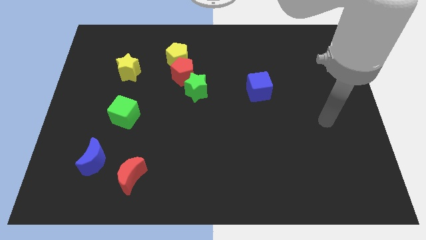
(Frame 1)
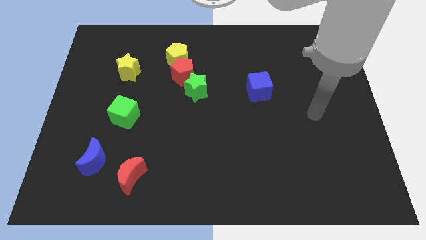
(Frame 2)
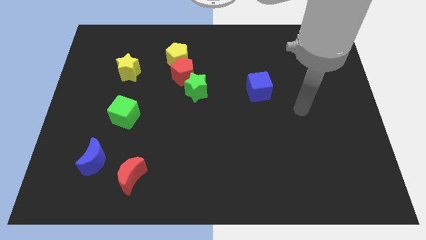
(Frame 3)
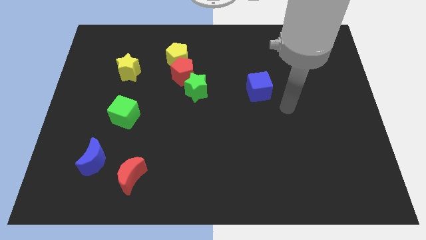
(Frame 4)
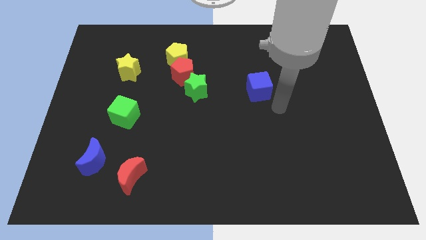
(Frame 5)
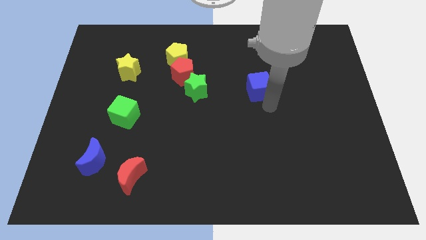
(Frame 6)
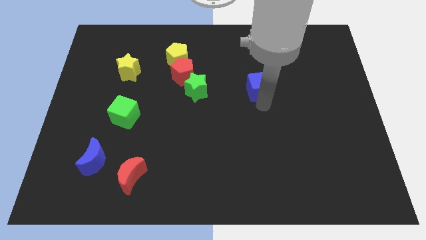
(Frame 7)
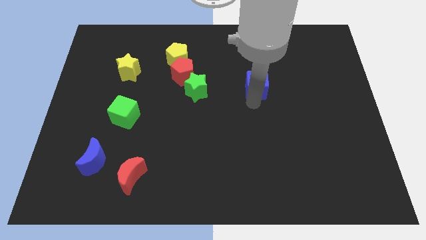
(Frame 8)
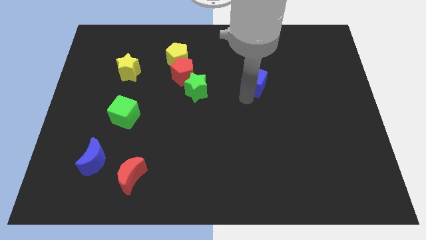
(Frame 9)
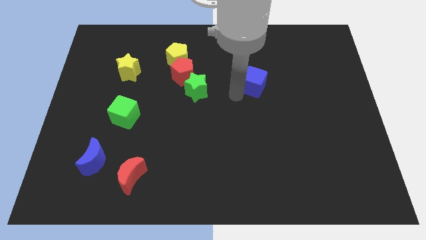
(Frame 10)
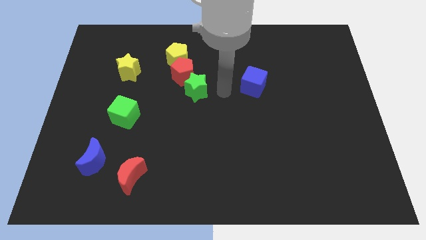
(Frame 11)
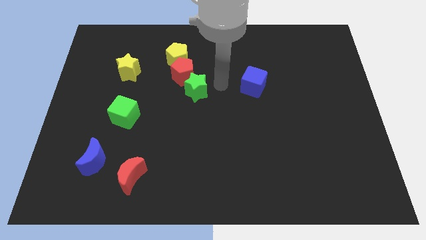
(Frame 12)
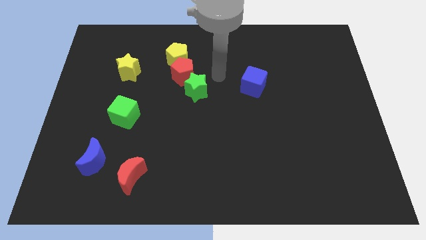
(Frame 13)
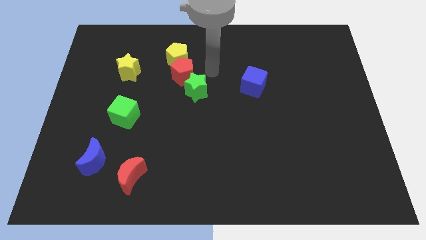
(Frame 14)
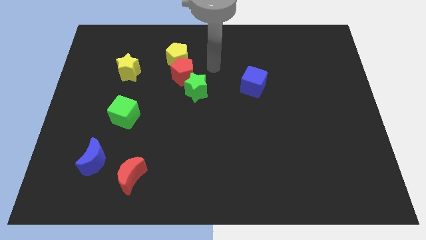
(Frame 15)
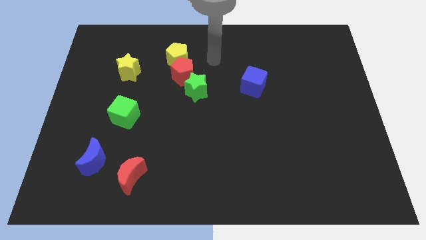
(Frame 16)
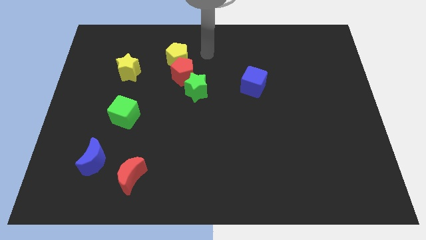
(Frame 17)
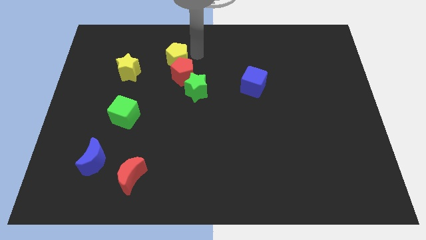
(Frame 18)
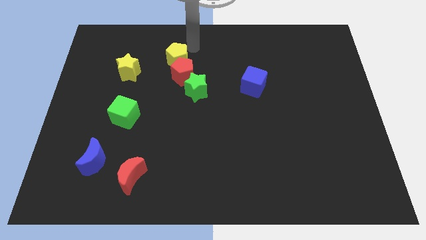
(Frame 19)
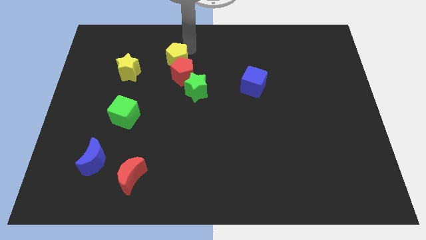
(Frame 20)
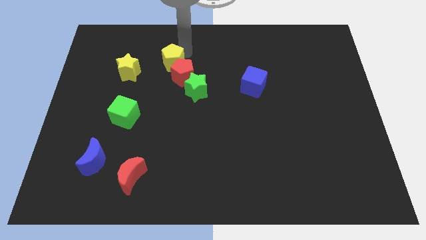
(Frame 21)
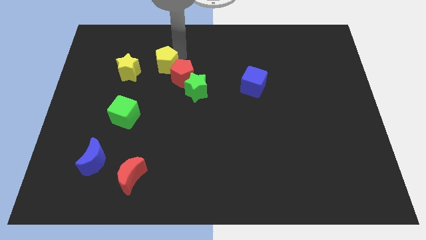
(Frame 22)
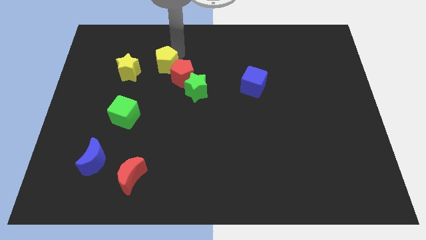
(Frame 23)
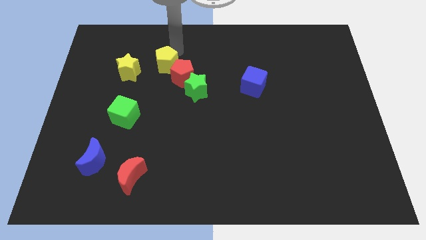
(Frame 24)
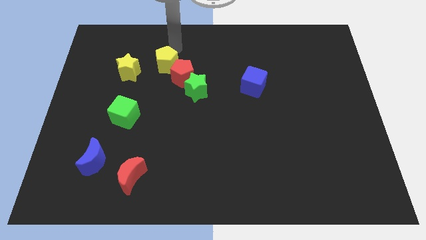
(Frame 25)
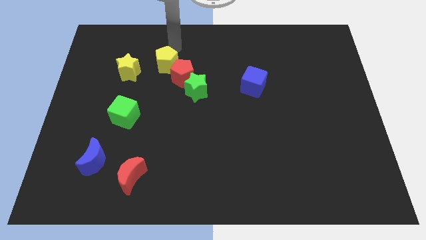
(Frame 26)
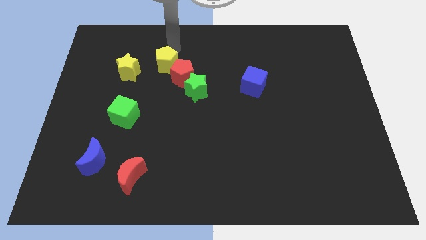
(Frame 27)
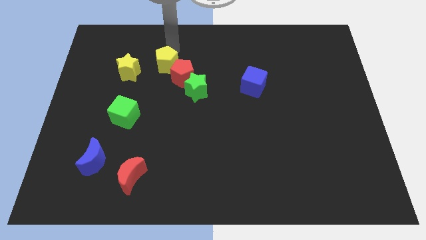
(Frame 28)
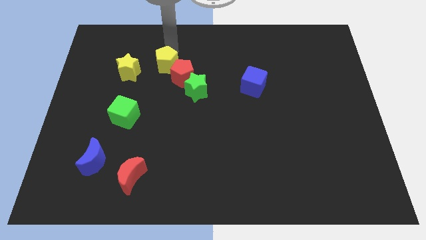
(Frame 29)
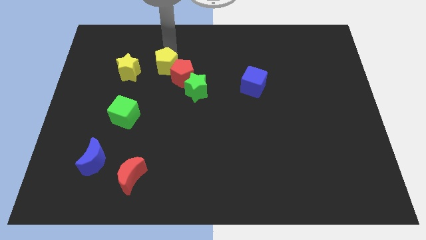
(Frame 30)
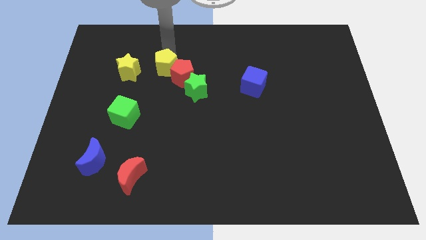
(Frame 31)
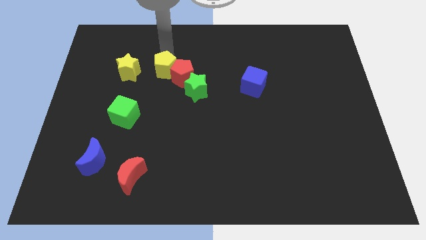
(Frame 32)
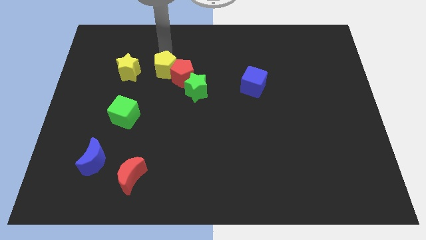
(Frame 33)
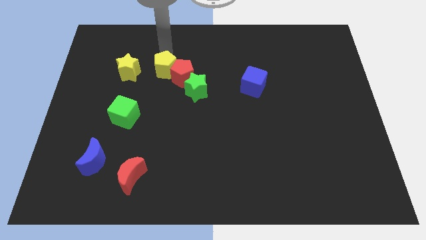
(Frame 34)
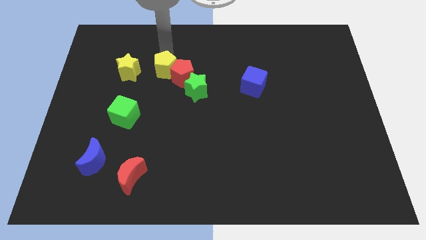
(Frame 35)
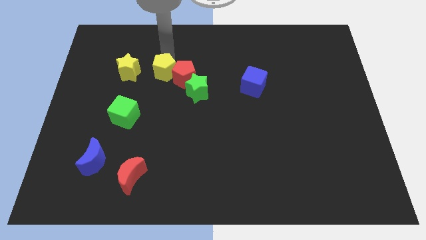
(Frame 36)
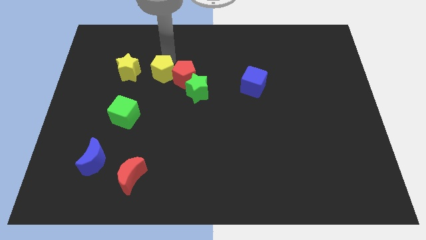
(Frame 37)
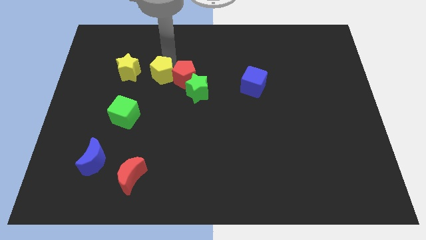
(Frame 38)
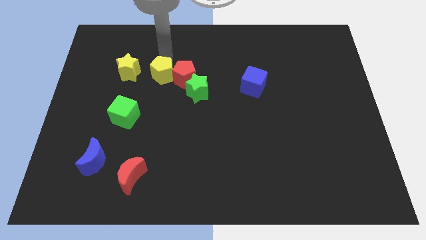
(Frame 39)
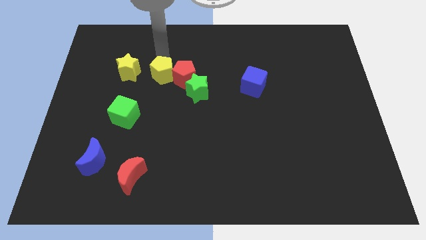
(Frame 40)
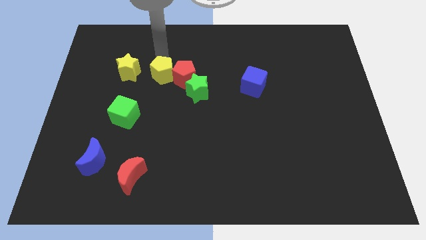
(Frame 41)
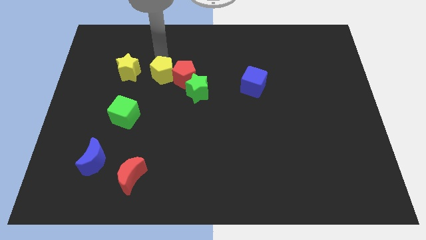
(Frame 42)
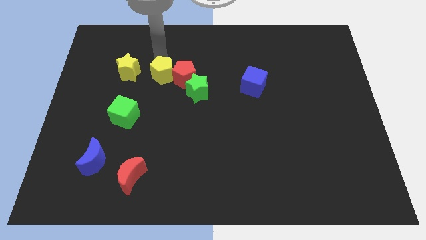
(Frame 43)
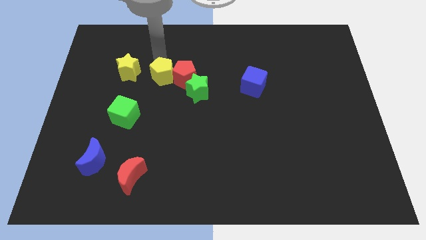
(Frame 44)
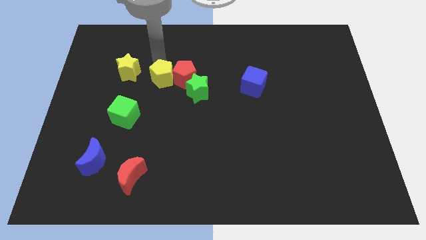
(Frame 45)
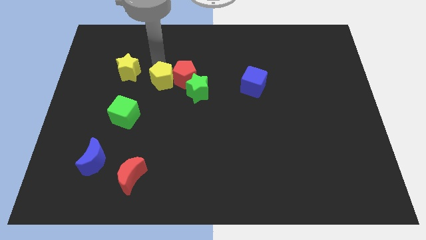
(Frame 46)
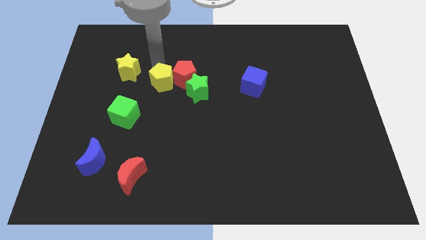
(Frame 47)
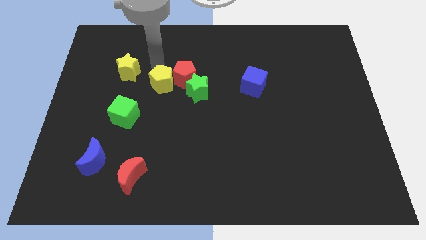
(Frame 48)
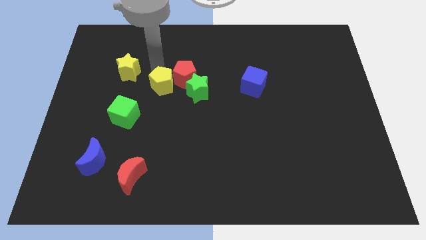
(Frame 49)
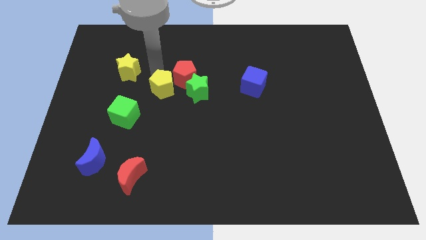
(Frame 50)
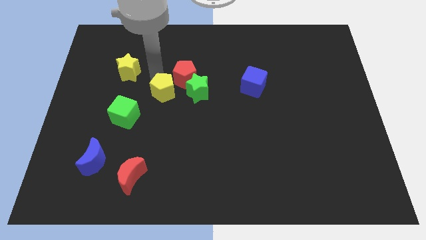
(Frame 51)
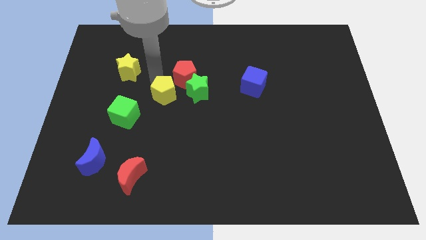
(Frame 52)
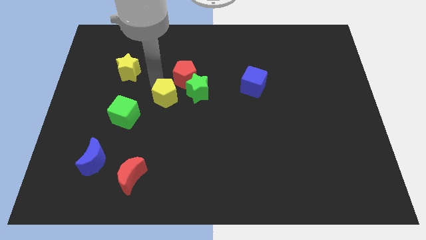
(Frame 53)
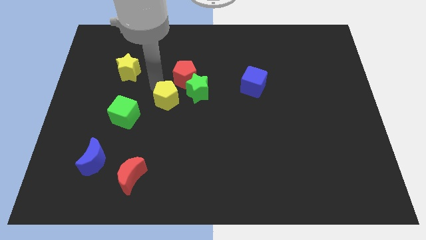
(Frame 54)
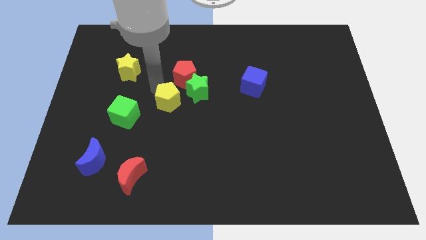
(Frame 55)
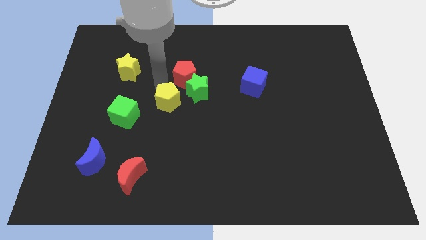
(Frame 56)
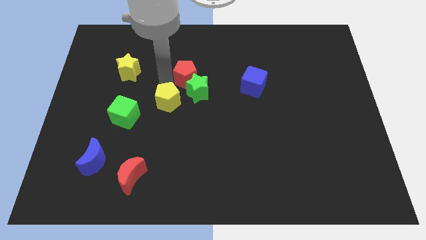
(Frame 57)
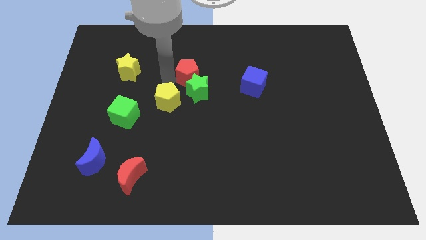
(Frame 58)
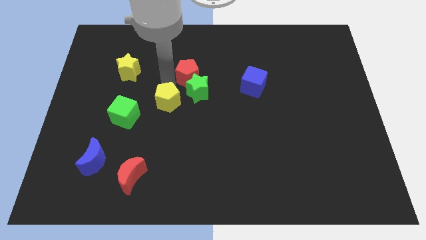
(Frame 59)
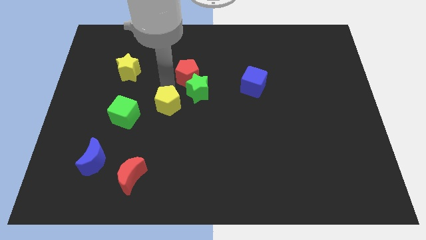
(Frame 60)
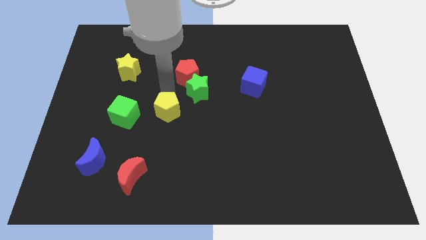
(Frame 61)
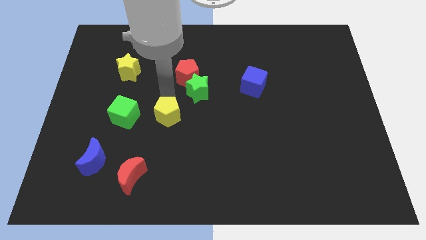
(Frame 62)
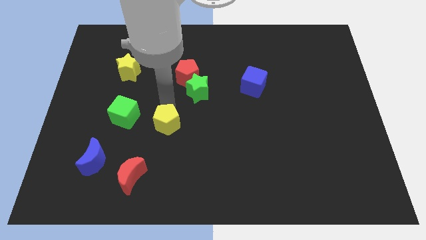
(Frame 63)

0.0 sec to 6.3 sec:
slide the yellow pentagon down

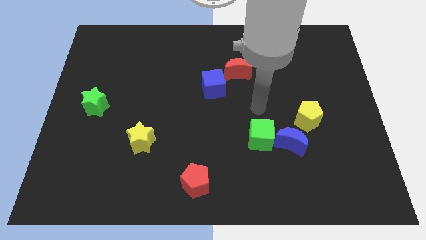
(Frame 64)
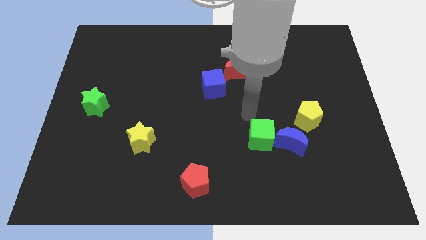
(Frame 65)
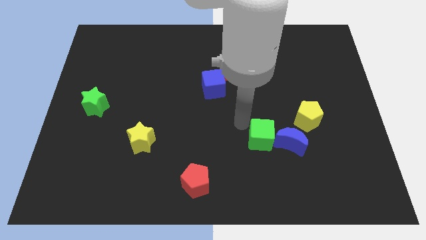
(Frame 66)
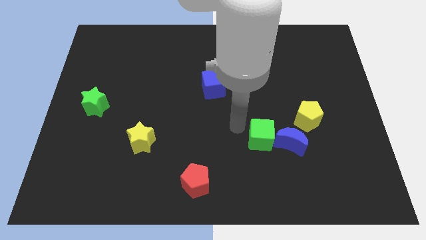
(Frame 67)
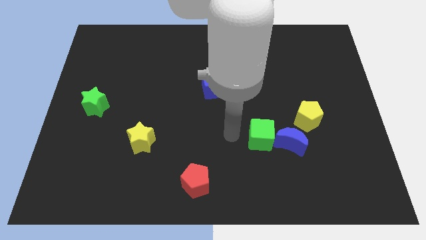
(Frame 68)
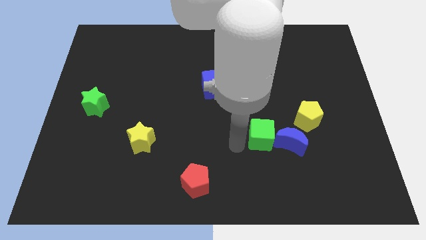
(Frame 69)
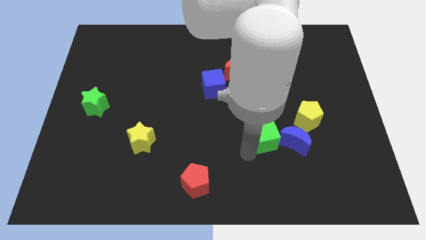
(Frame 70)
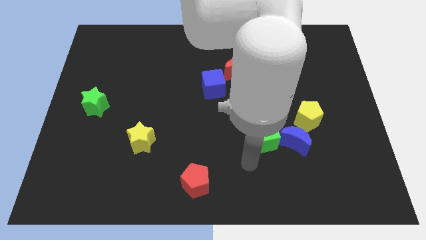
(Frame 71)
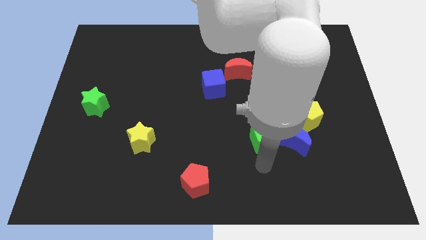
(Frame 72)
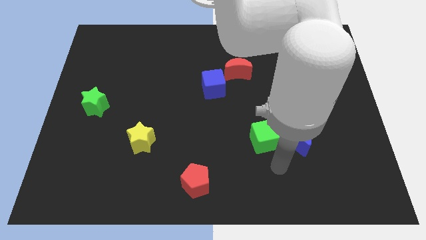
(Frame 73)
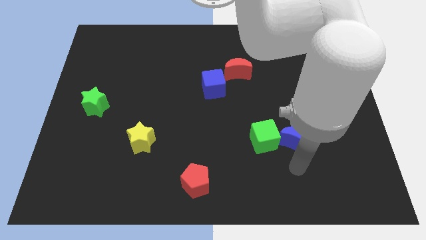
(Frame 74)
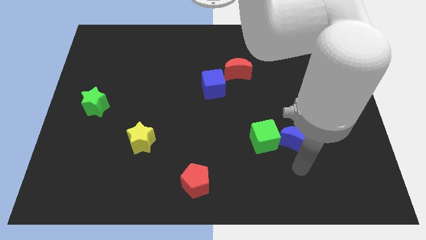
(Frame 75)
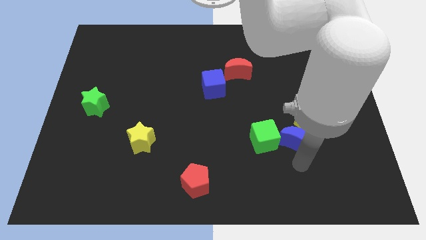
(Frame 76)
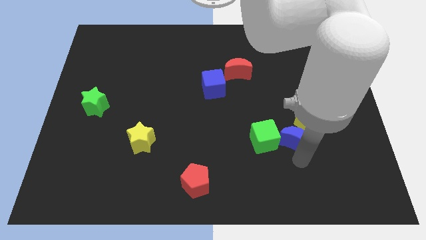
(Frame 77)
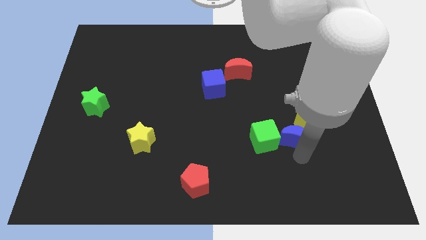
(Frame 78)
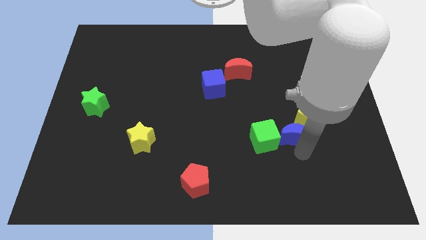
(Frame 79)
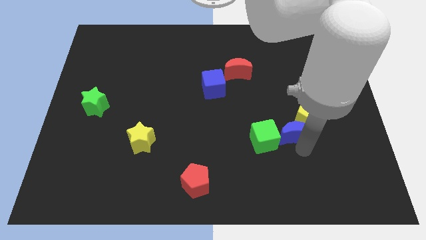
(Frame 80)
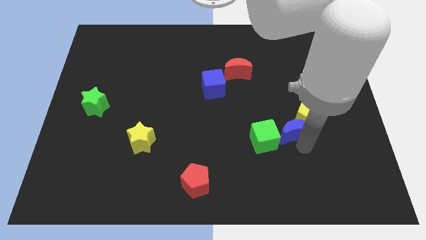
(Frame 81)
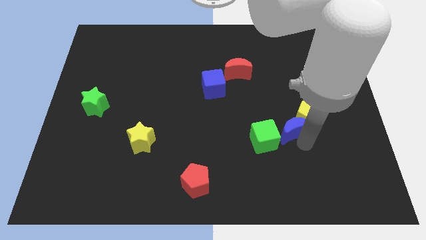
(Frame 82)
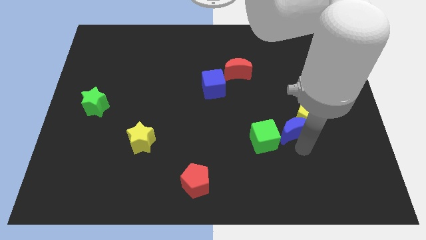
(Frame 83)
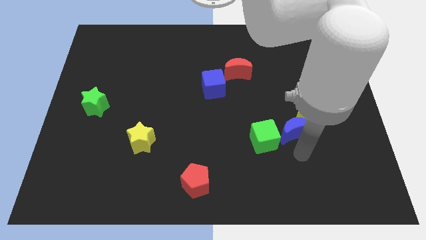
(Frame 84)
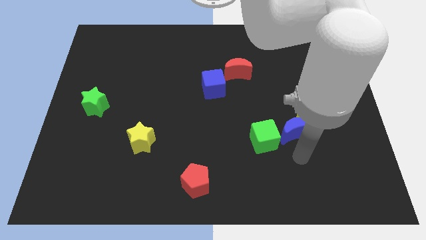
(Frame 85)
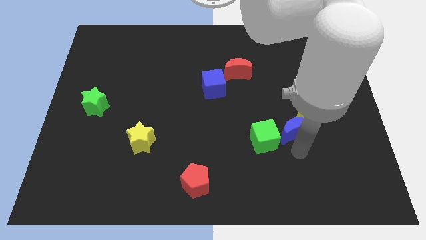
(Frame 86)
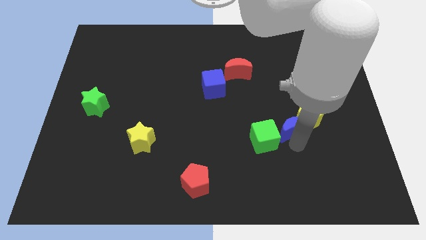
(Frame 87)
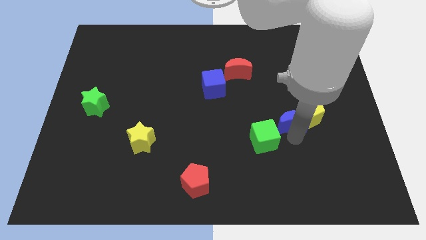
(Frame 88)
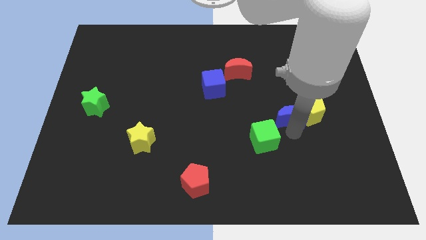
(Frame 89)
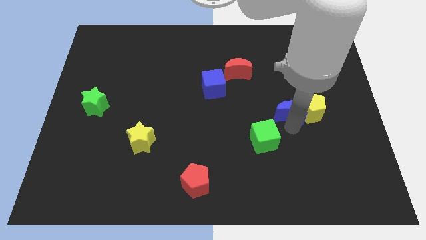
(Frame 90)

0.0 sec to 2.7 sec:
slightly move the blue moon up
